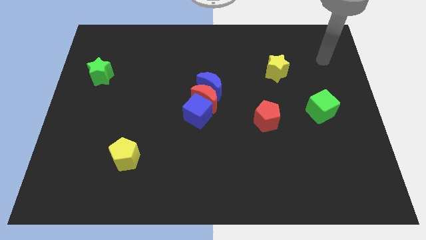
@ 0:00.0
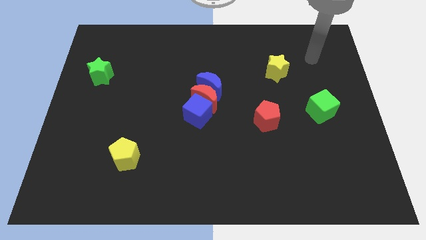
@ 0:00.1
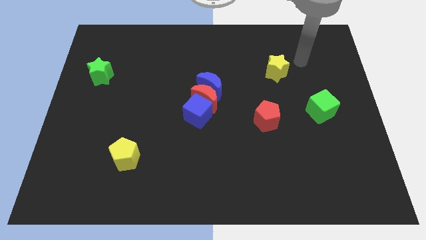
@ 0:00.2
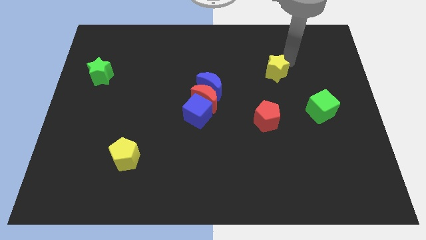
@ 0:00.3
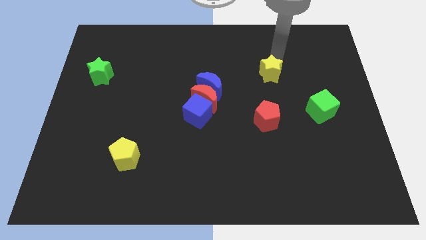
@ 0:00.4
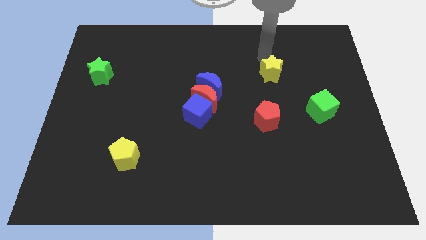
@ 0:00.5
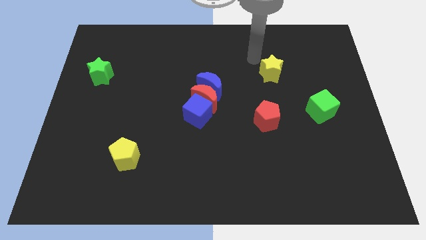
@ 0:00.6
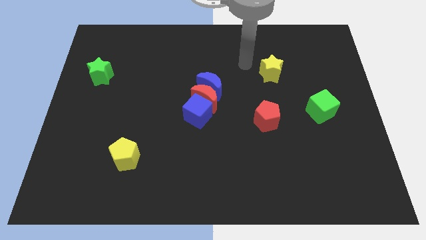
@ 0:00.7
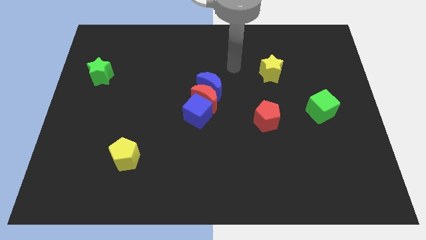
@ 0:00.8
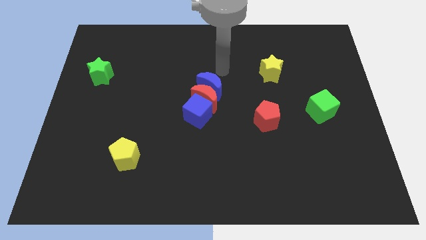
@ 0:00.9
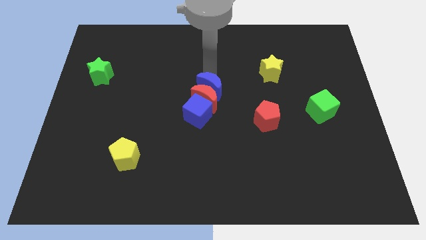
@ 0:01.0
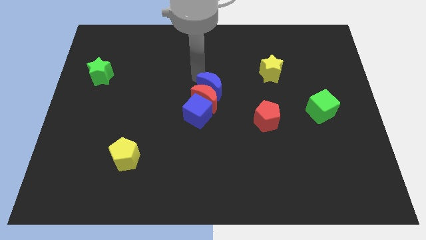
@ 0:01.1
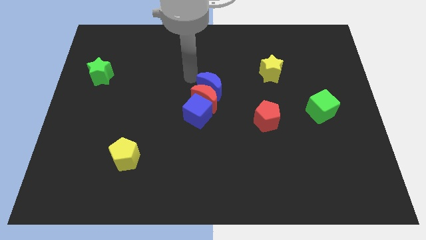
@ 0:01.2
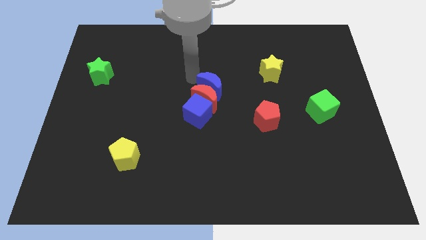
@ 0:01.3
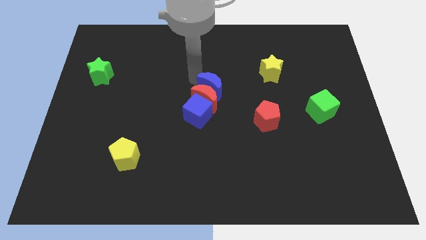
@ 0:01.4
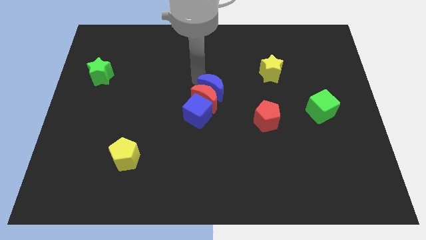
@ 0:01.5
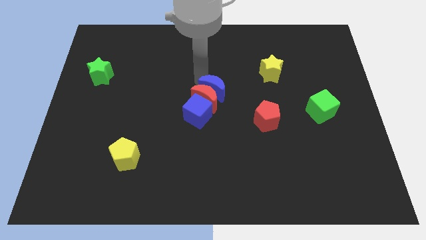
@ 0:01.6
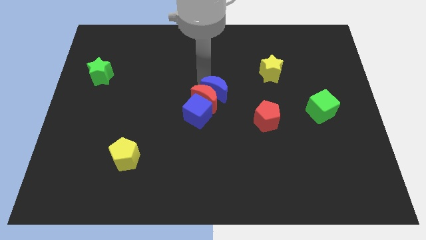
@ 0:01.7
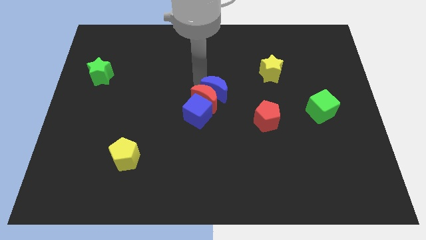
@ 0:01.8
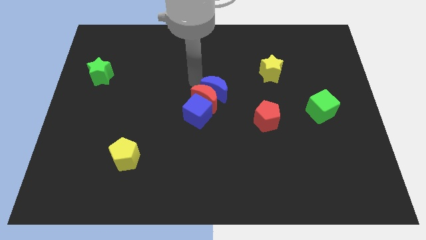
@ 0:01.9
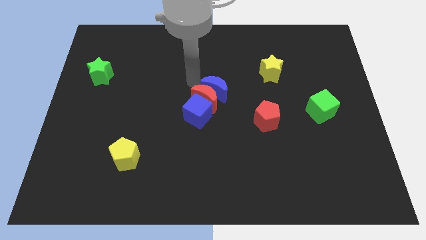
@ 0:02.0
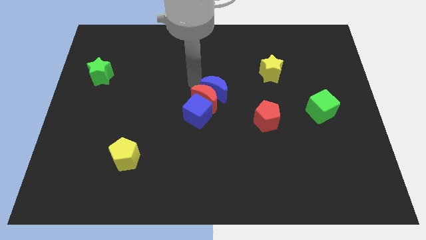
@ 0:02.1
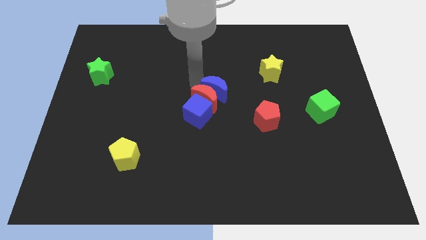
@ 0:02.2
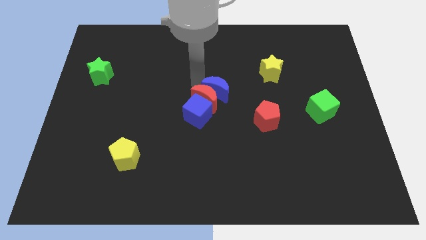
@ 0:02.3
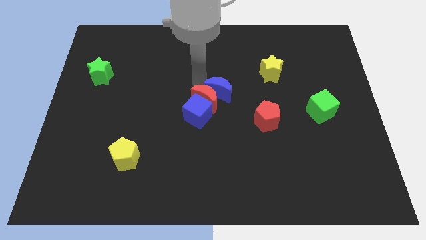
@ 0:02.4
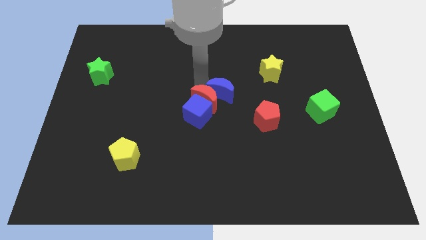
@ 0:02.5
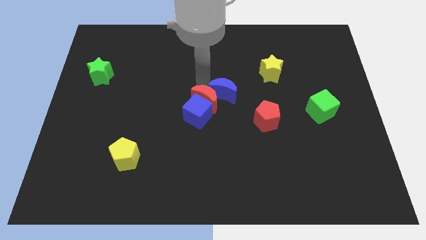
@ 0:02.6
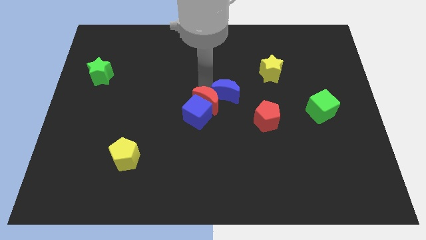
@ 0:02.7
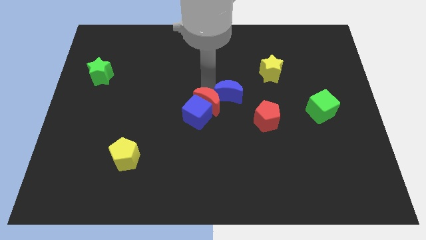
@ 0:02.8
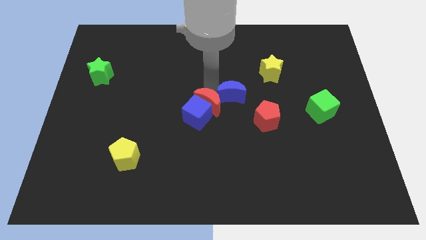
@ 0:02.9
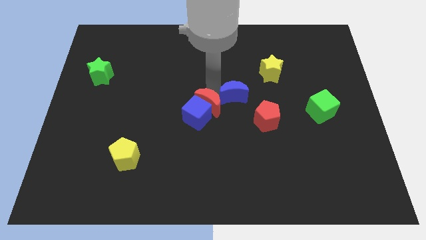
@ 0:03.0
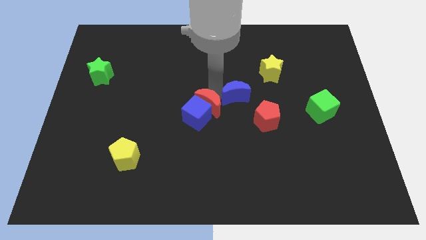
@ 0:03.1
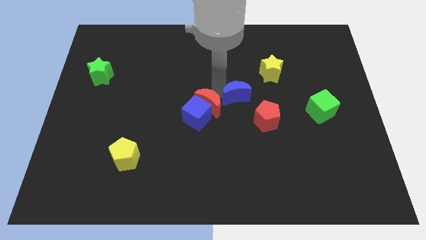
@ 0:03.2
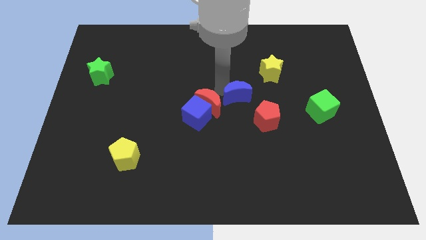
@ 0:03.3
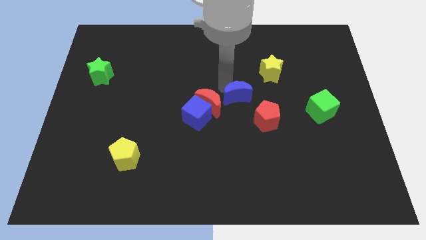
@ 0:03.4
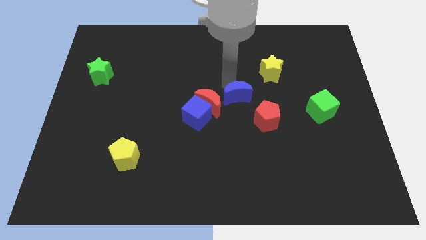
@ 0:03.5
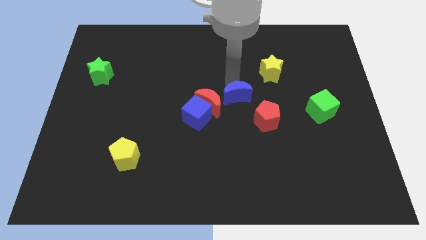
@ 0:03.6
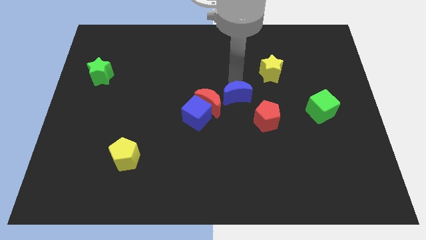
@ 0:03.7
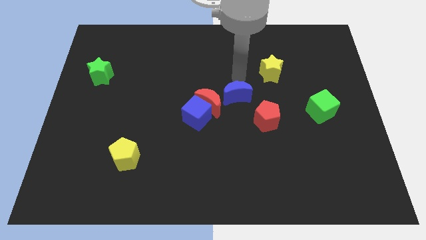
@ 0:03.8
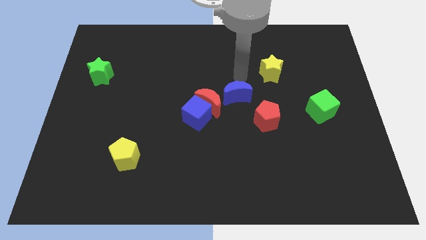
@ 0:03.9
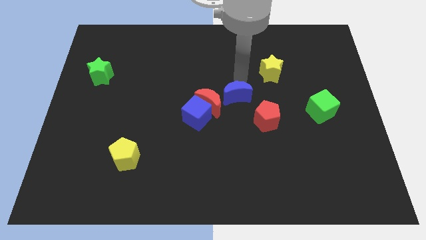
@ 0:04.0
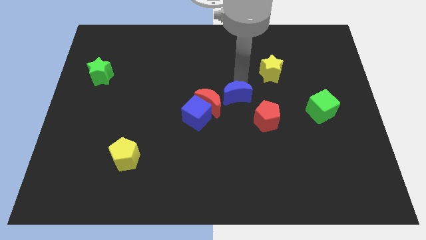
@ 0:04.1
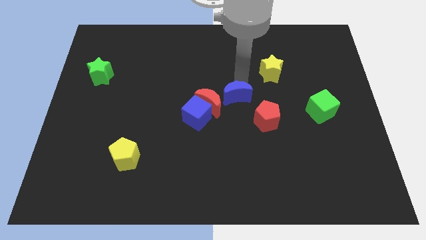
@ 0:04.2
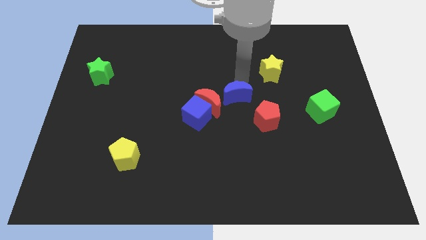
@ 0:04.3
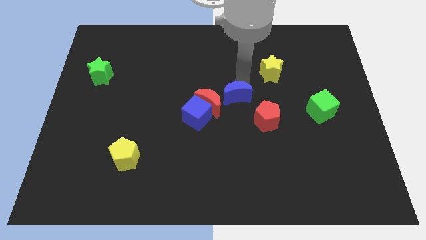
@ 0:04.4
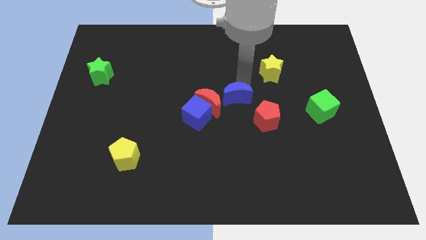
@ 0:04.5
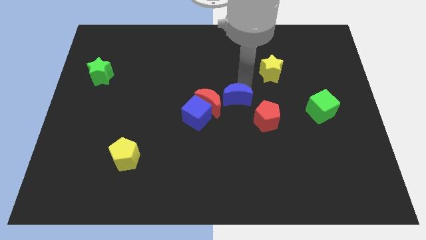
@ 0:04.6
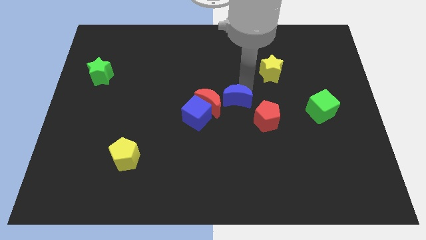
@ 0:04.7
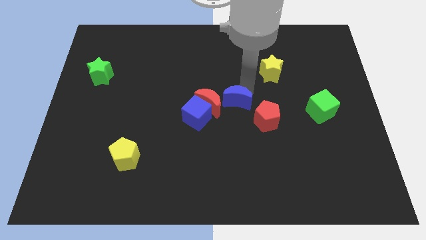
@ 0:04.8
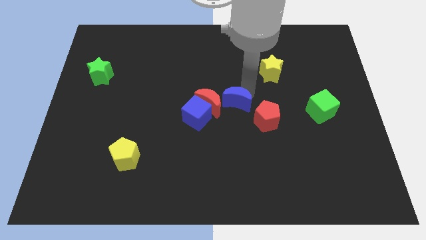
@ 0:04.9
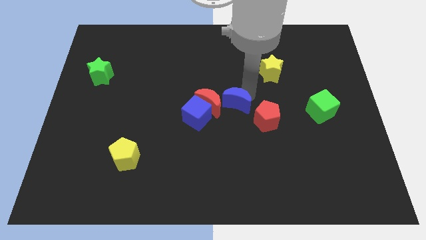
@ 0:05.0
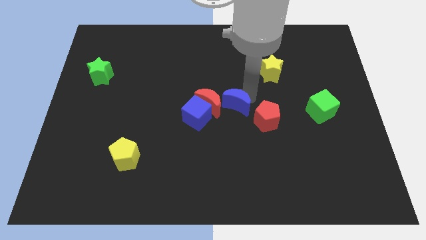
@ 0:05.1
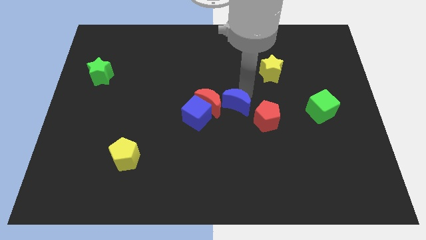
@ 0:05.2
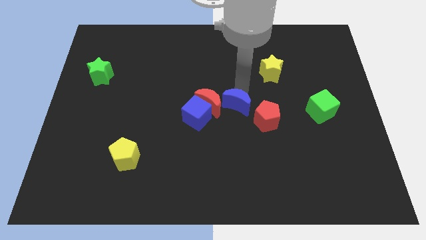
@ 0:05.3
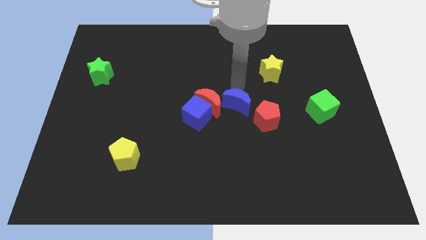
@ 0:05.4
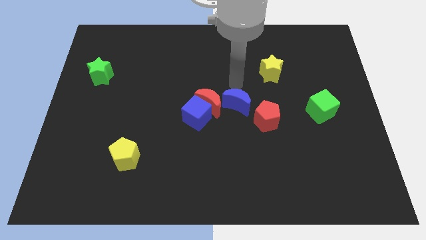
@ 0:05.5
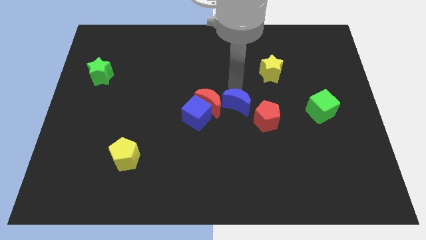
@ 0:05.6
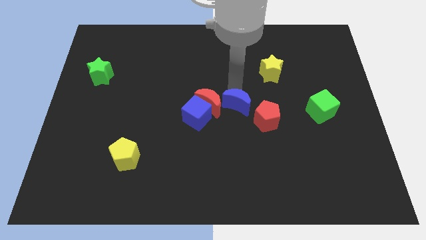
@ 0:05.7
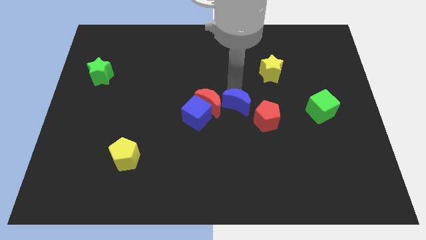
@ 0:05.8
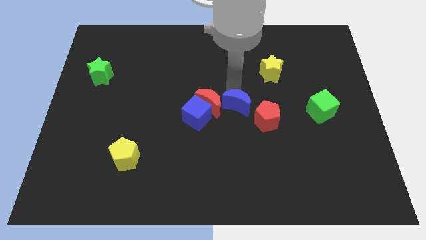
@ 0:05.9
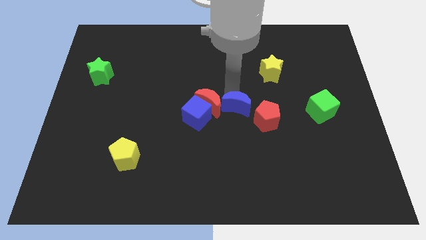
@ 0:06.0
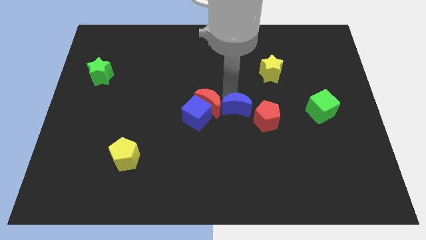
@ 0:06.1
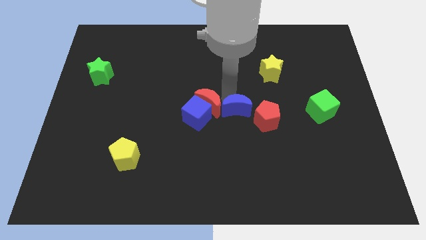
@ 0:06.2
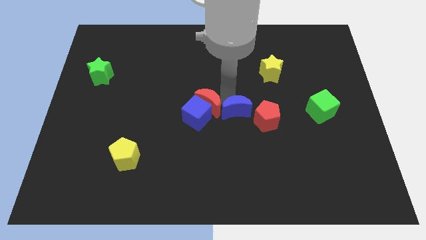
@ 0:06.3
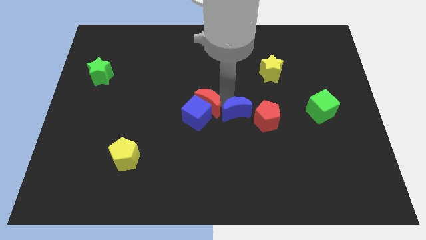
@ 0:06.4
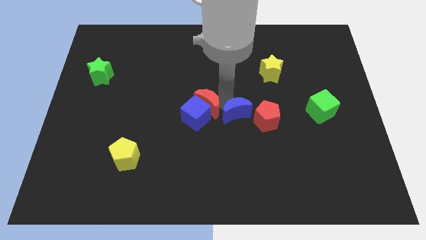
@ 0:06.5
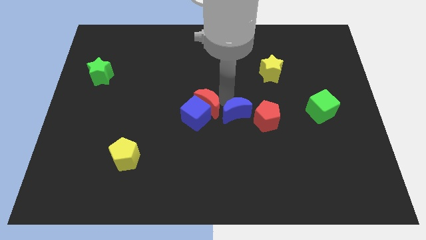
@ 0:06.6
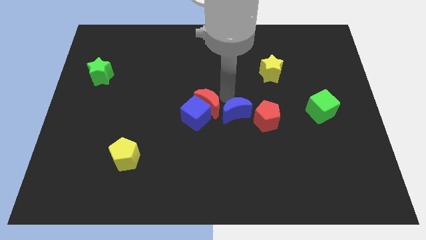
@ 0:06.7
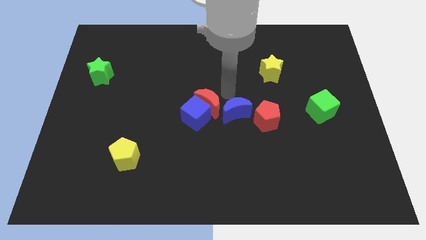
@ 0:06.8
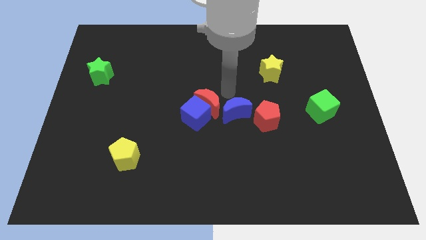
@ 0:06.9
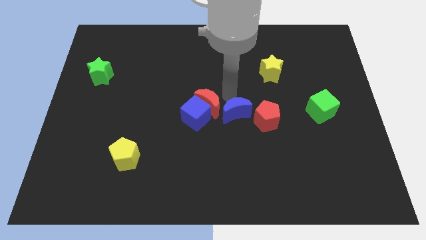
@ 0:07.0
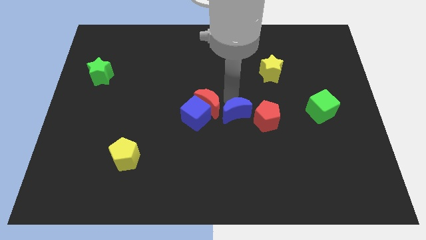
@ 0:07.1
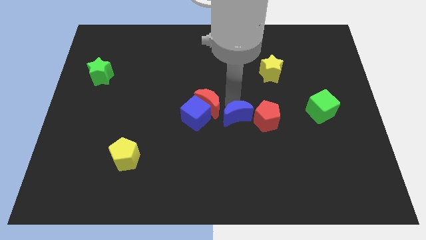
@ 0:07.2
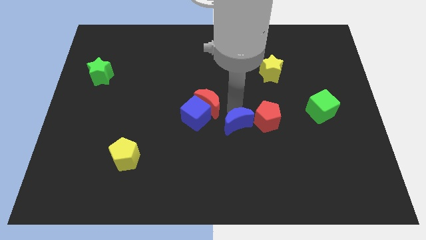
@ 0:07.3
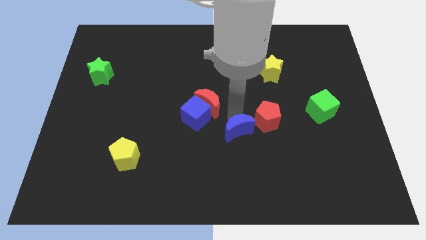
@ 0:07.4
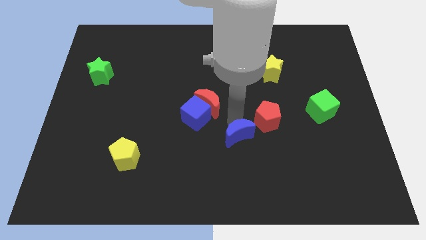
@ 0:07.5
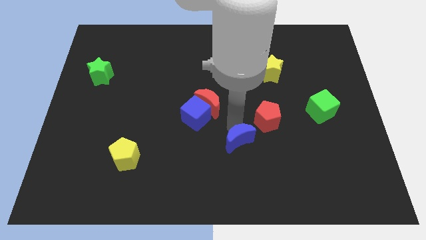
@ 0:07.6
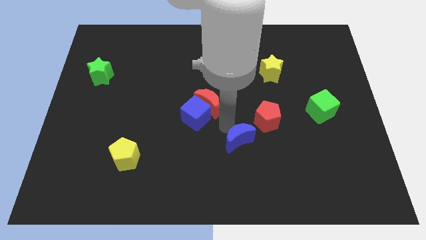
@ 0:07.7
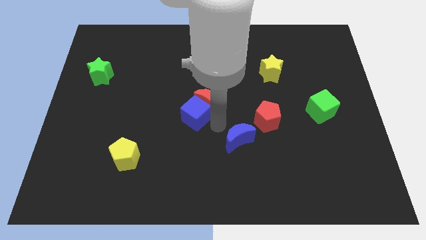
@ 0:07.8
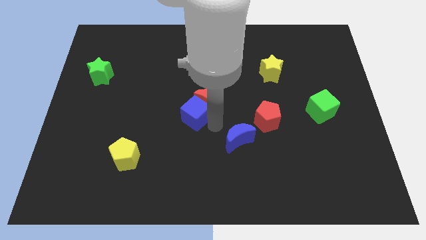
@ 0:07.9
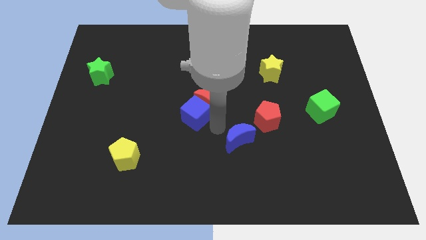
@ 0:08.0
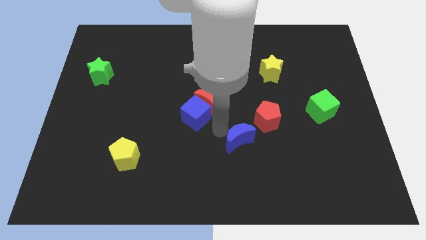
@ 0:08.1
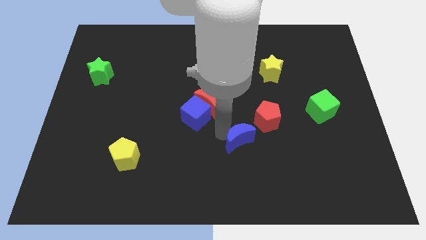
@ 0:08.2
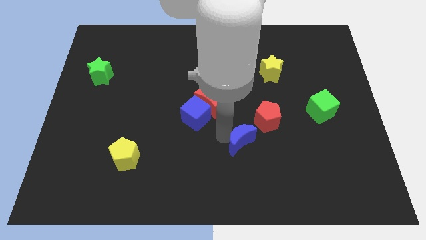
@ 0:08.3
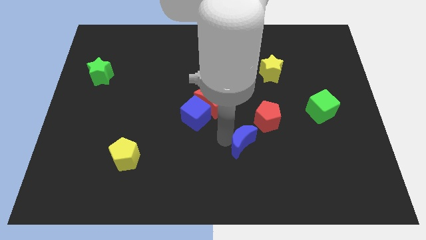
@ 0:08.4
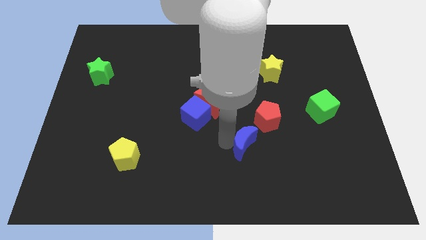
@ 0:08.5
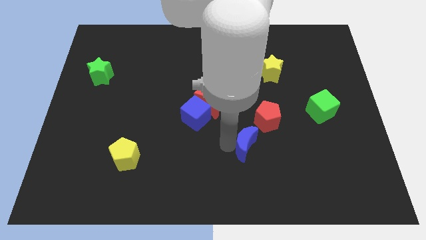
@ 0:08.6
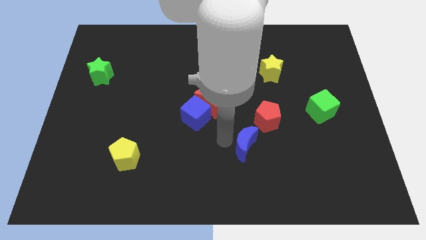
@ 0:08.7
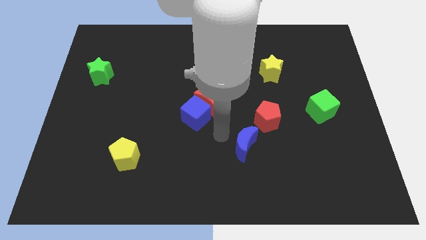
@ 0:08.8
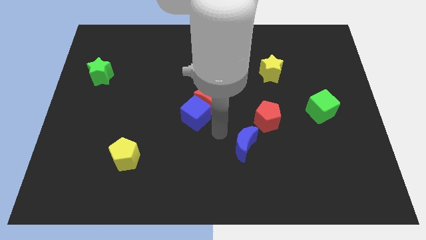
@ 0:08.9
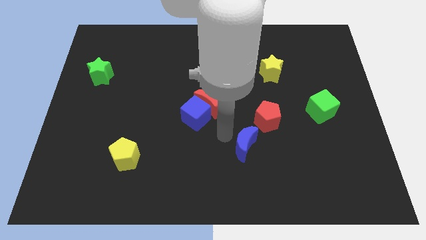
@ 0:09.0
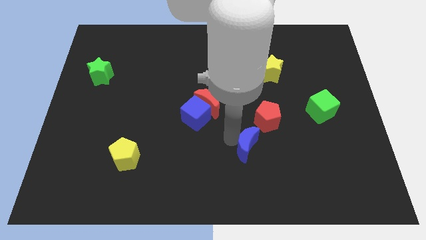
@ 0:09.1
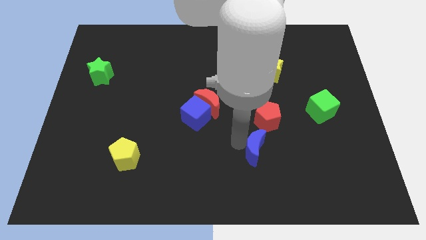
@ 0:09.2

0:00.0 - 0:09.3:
push the blue moon below the red pentagon
